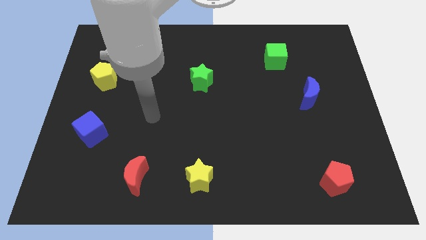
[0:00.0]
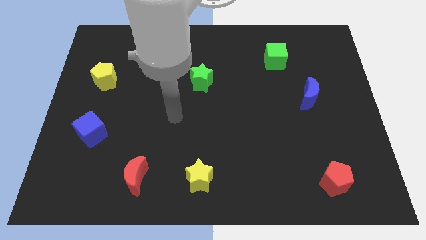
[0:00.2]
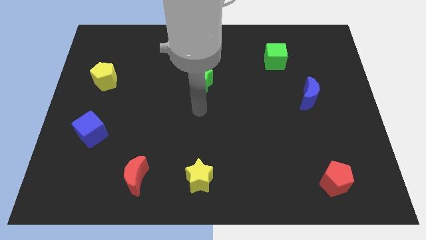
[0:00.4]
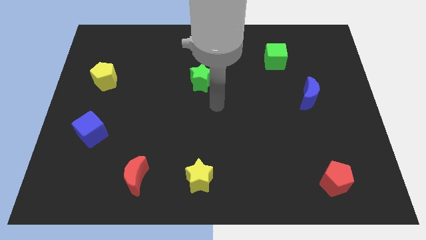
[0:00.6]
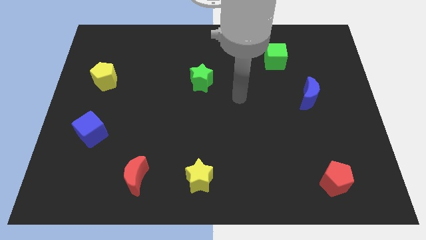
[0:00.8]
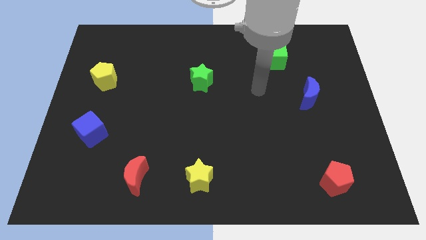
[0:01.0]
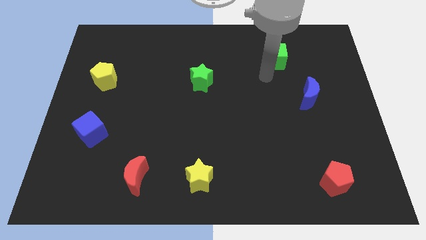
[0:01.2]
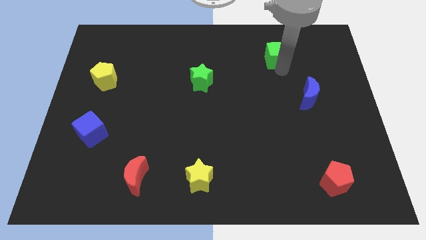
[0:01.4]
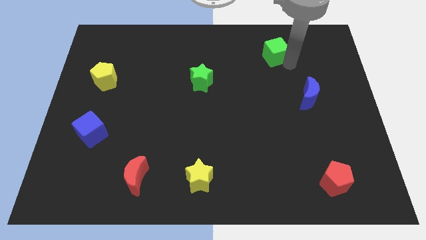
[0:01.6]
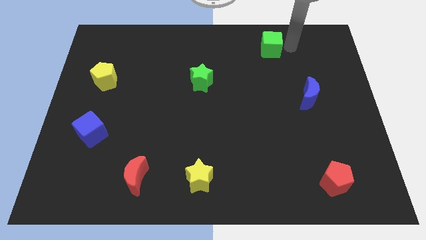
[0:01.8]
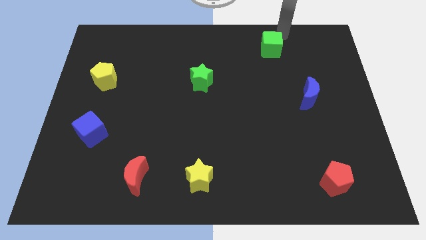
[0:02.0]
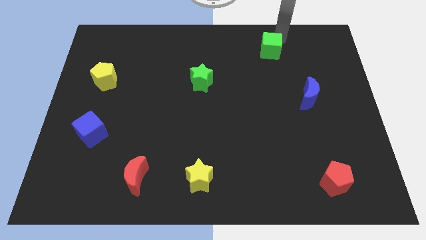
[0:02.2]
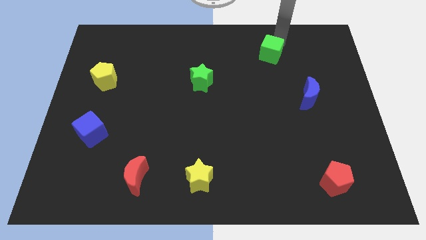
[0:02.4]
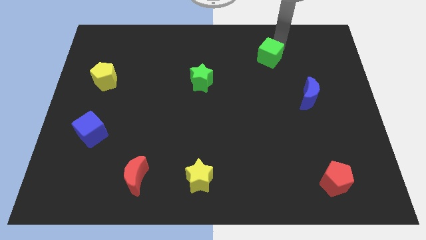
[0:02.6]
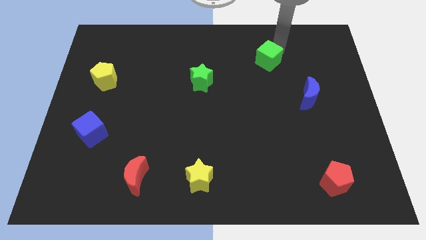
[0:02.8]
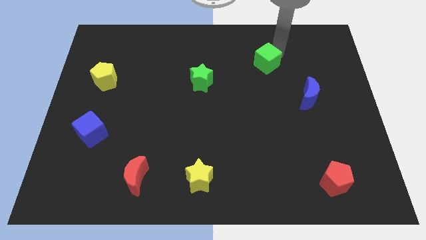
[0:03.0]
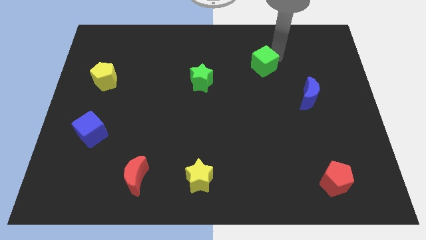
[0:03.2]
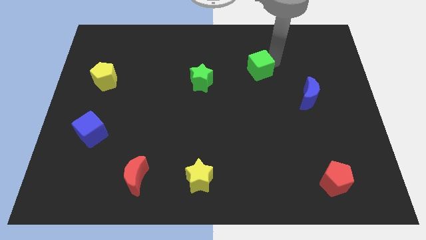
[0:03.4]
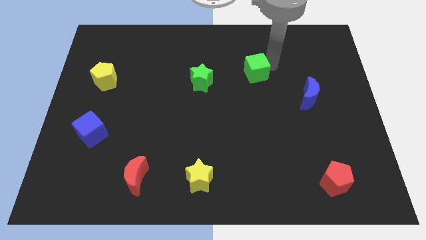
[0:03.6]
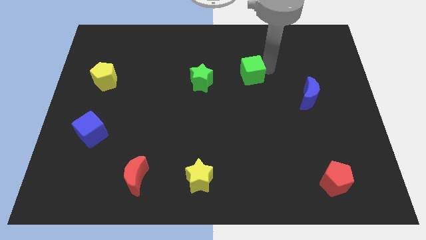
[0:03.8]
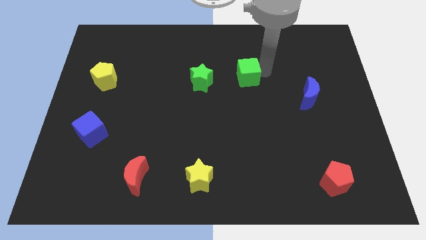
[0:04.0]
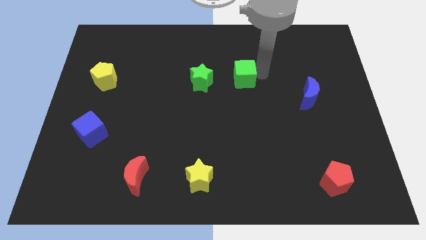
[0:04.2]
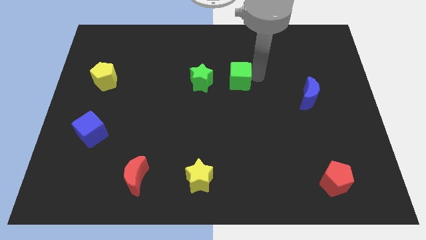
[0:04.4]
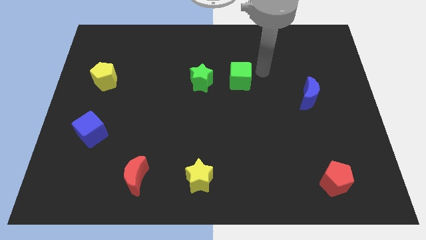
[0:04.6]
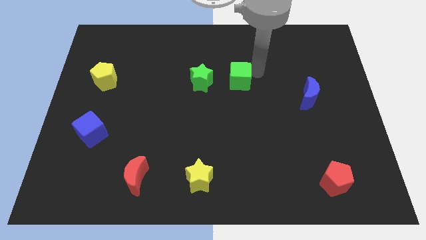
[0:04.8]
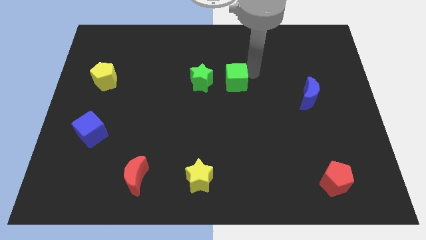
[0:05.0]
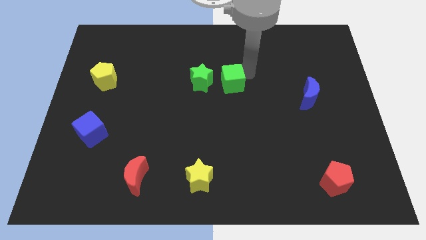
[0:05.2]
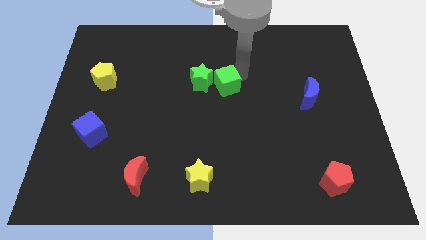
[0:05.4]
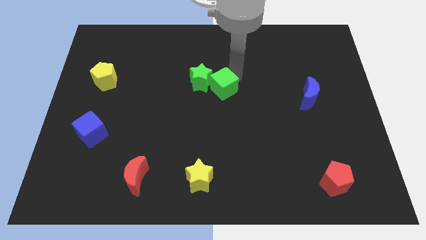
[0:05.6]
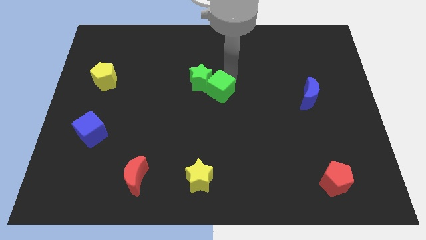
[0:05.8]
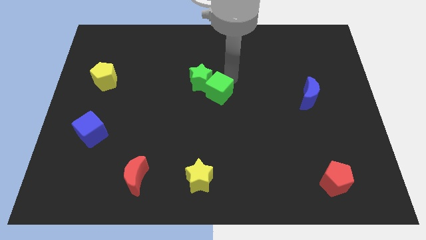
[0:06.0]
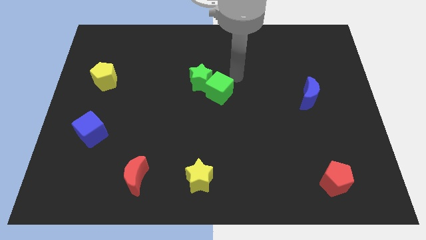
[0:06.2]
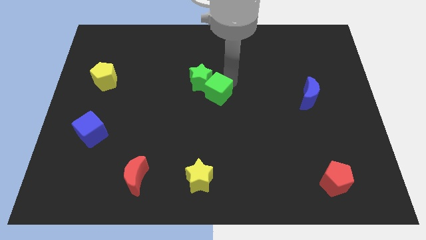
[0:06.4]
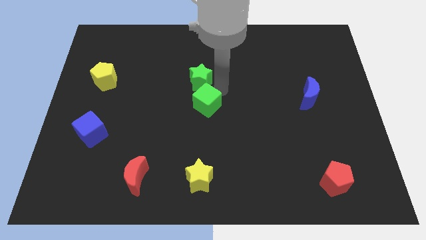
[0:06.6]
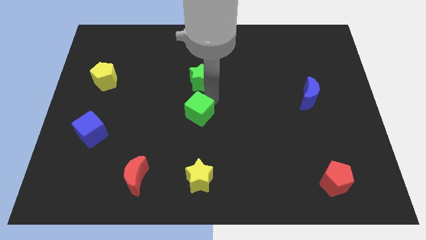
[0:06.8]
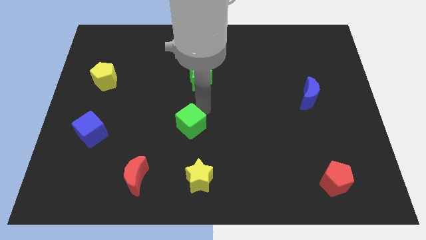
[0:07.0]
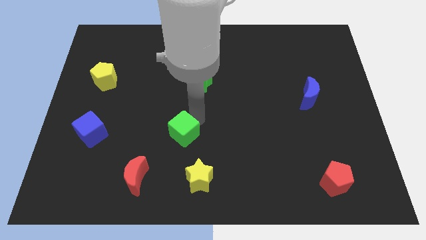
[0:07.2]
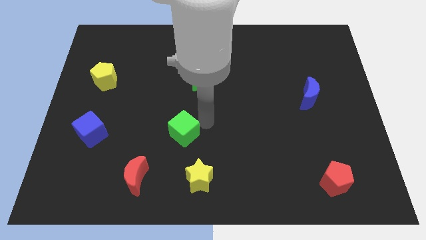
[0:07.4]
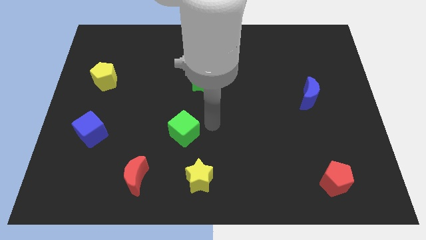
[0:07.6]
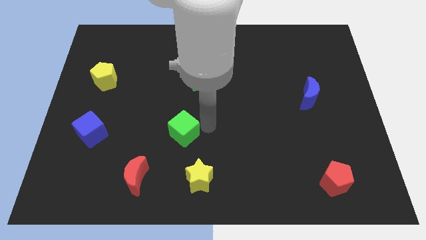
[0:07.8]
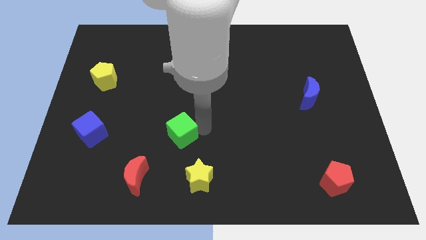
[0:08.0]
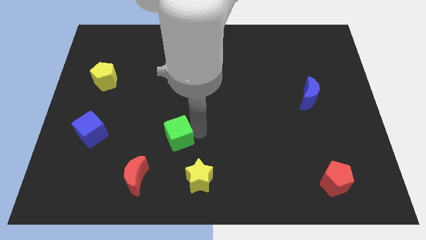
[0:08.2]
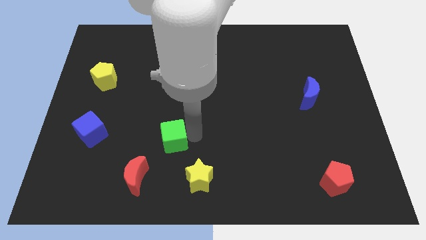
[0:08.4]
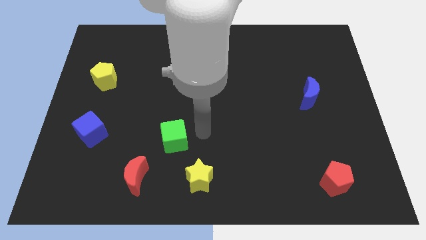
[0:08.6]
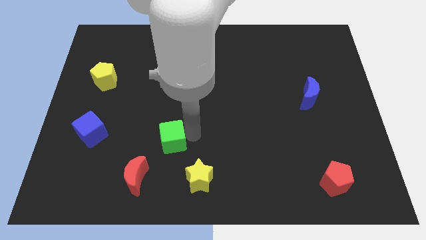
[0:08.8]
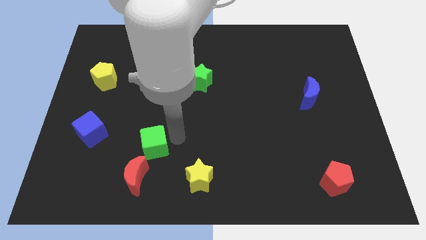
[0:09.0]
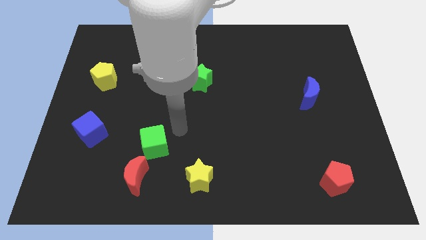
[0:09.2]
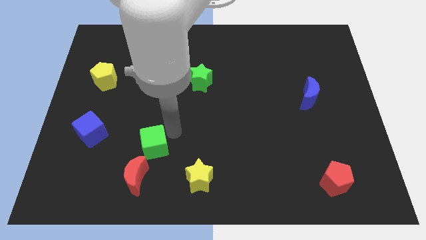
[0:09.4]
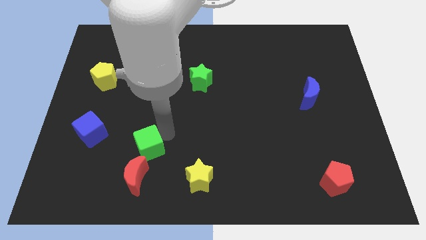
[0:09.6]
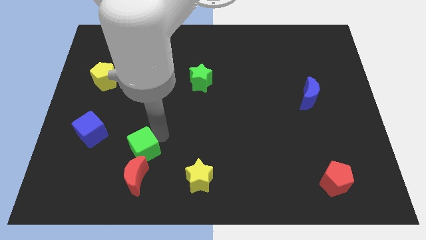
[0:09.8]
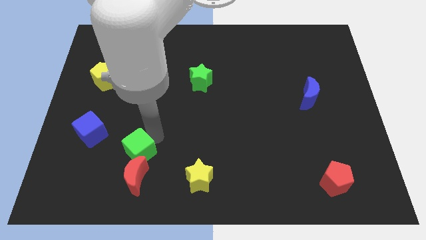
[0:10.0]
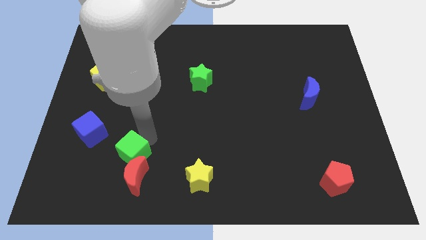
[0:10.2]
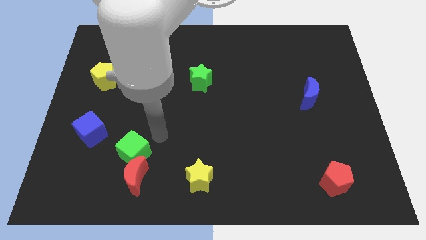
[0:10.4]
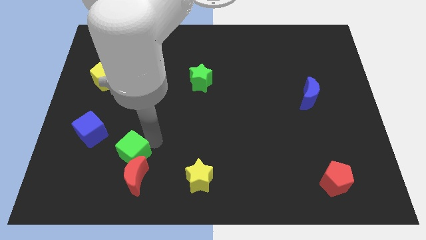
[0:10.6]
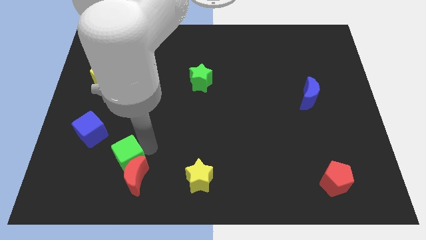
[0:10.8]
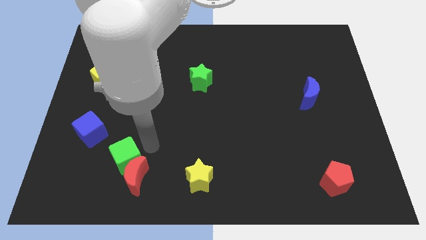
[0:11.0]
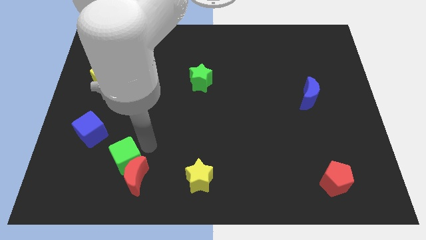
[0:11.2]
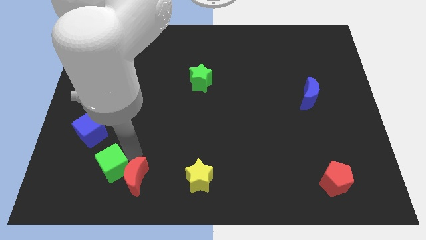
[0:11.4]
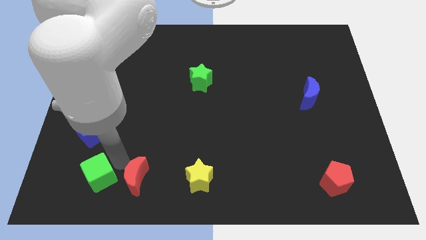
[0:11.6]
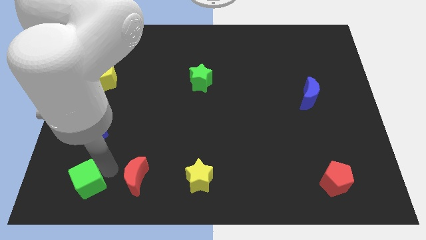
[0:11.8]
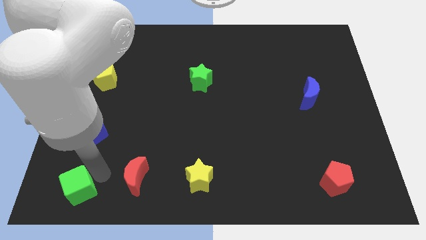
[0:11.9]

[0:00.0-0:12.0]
slide the green cube to the lower left corner

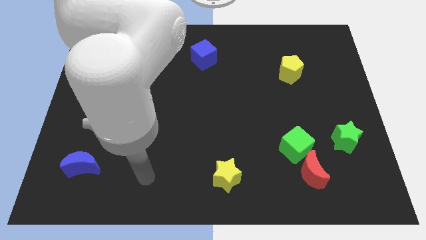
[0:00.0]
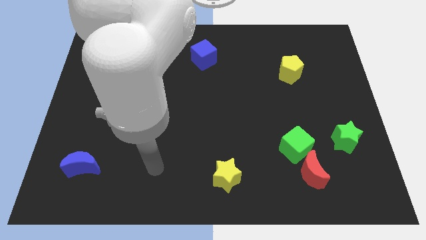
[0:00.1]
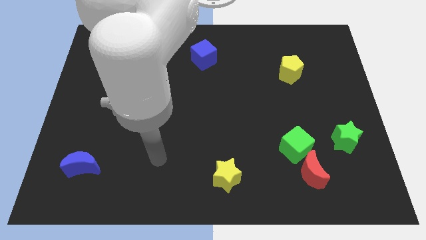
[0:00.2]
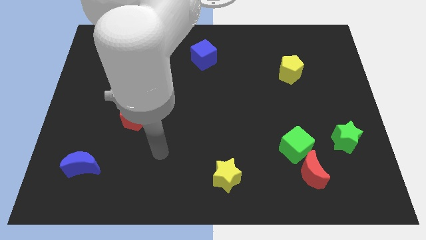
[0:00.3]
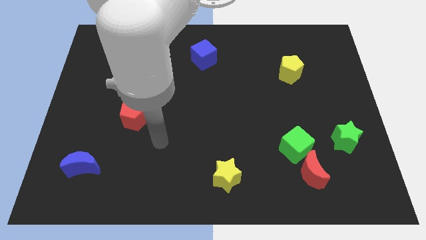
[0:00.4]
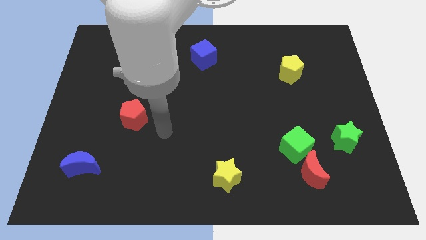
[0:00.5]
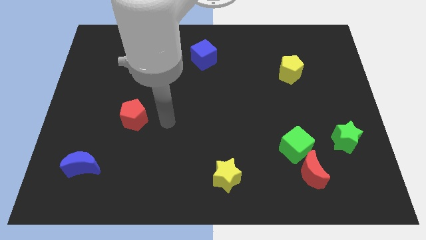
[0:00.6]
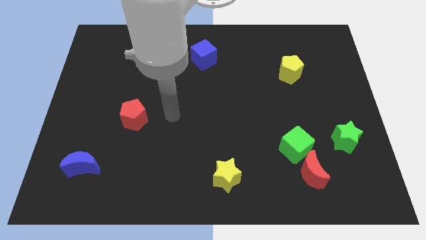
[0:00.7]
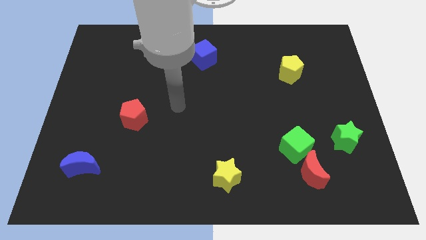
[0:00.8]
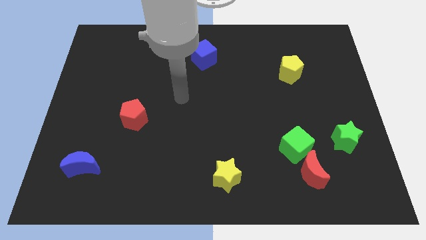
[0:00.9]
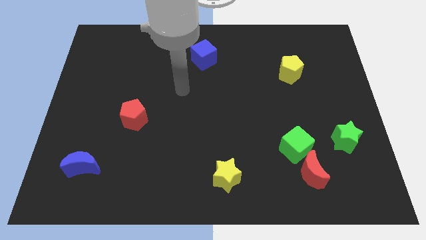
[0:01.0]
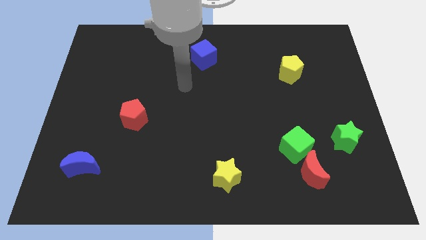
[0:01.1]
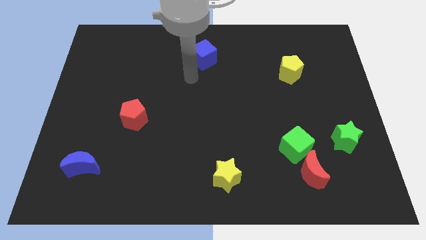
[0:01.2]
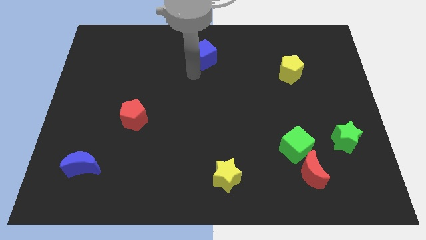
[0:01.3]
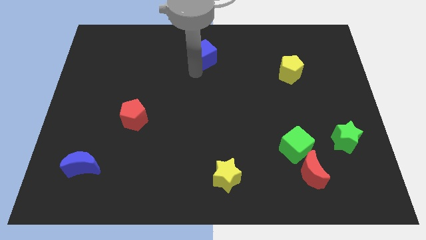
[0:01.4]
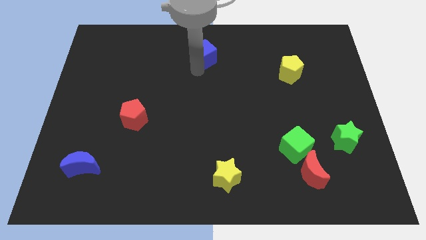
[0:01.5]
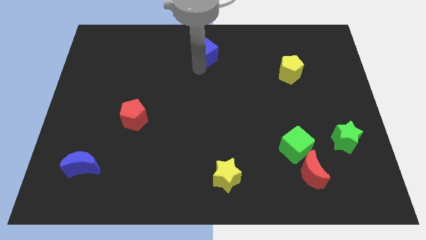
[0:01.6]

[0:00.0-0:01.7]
put the blue cube to the towards your base
